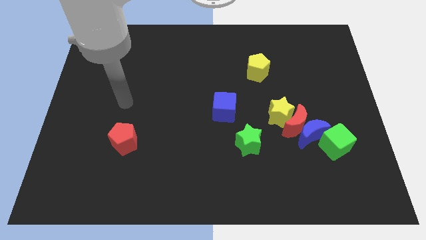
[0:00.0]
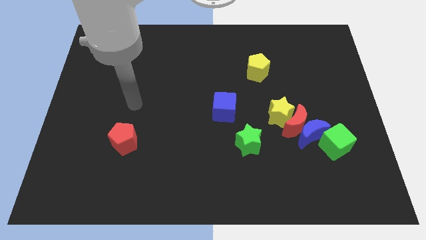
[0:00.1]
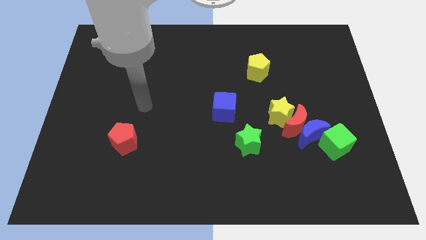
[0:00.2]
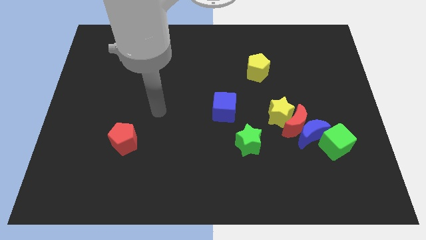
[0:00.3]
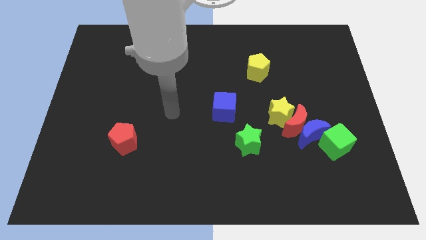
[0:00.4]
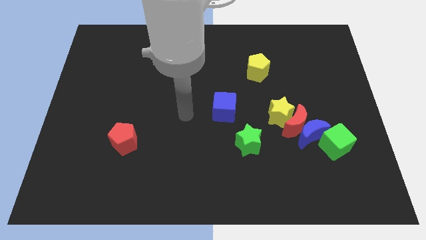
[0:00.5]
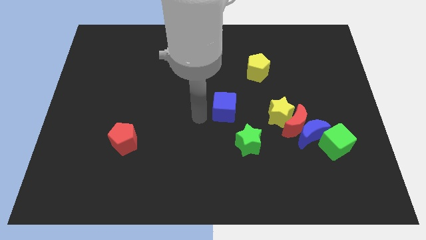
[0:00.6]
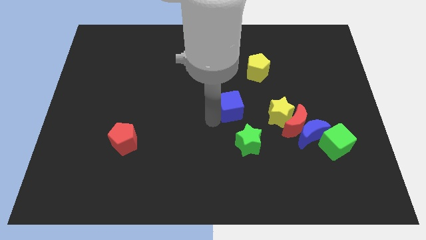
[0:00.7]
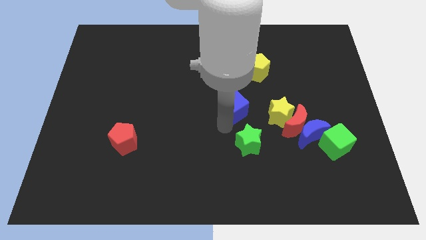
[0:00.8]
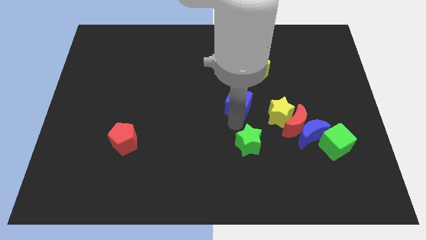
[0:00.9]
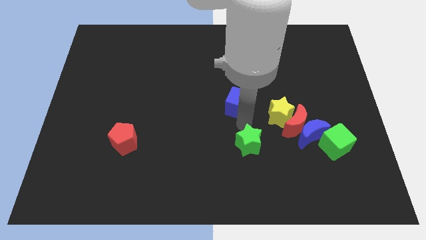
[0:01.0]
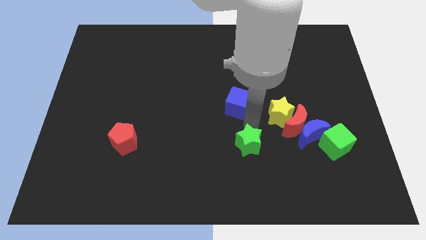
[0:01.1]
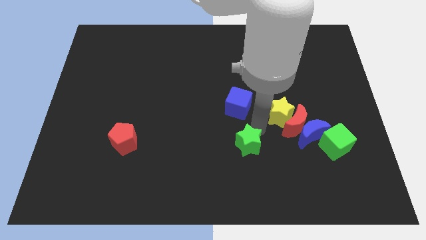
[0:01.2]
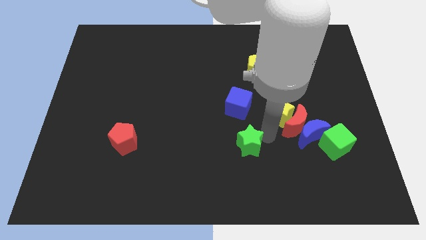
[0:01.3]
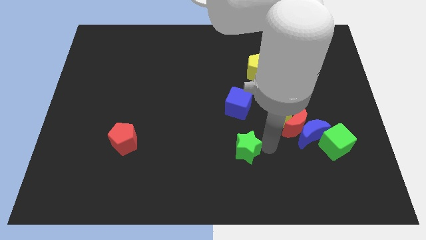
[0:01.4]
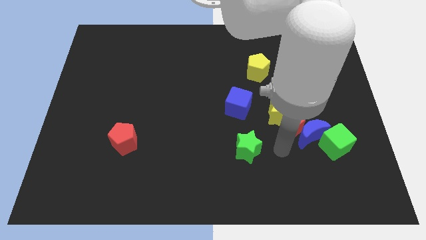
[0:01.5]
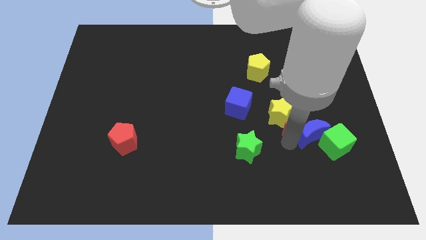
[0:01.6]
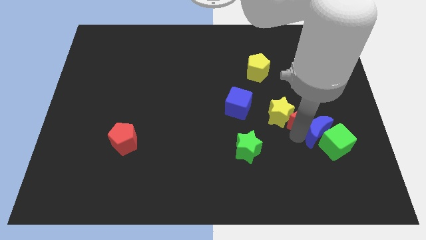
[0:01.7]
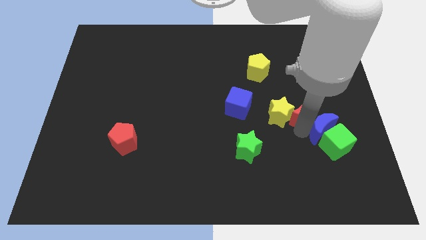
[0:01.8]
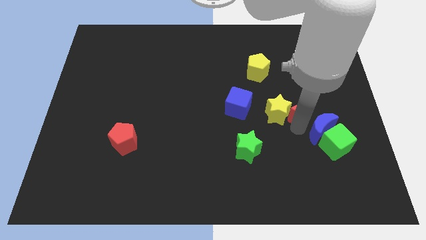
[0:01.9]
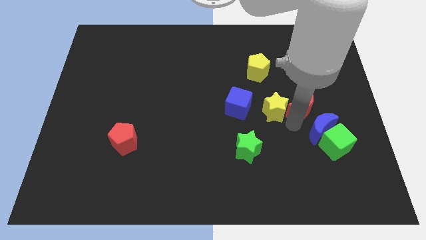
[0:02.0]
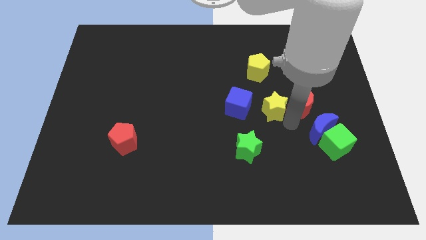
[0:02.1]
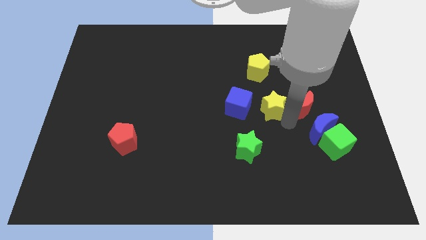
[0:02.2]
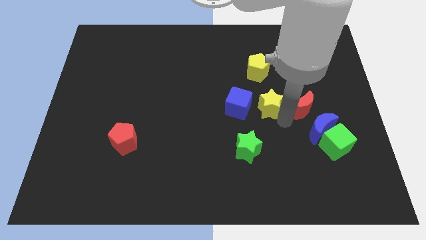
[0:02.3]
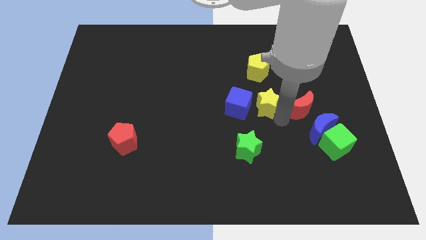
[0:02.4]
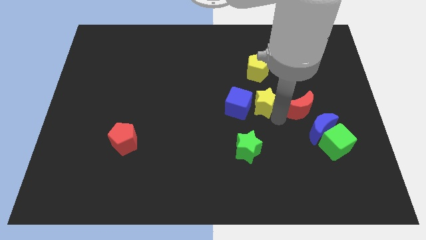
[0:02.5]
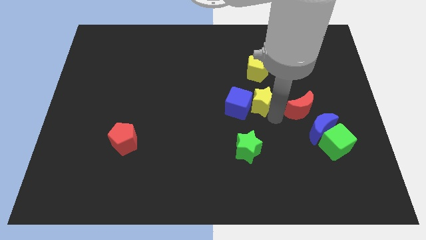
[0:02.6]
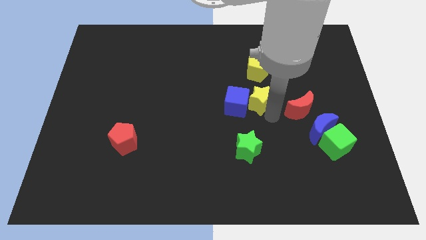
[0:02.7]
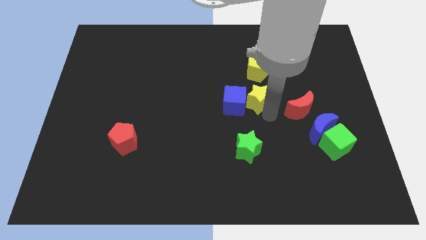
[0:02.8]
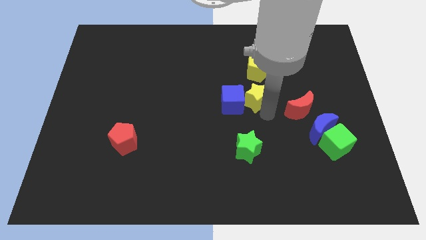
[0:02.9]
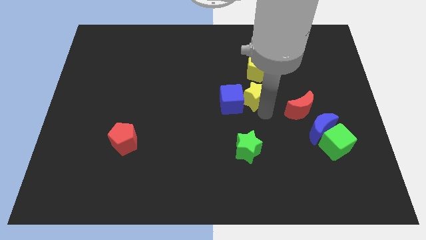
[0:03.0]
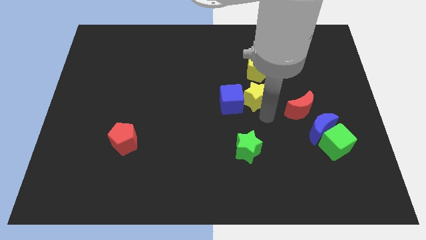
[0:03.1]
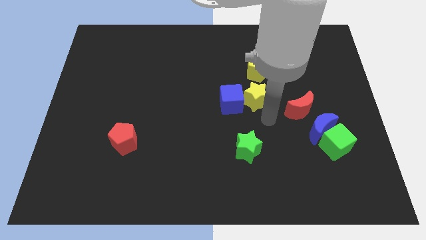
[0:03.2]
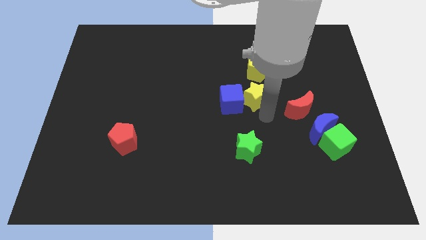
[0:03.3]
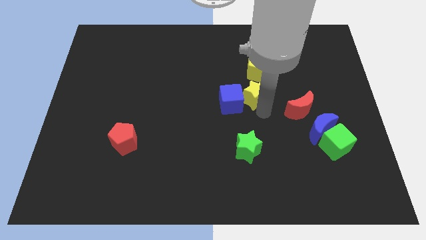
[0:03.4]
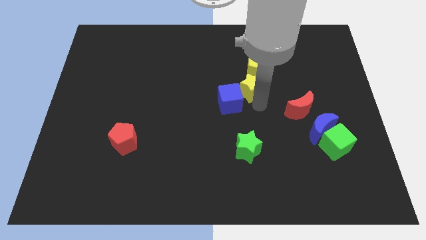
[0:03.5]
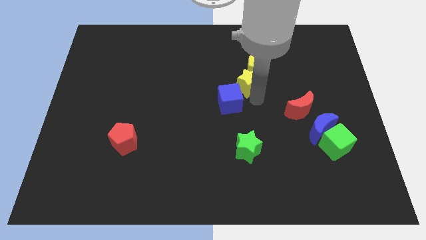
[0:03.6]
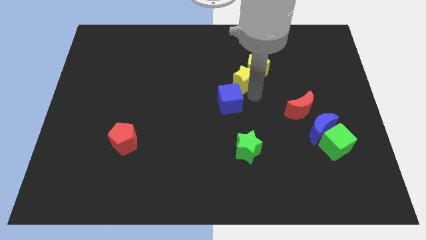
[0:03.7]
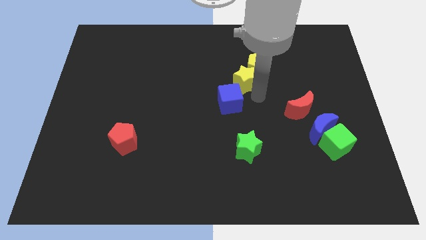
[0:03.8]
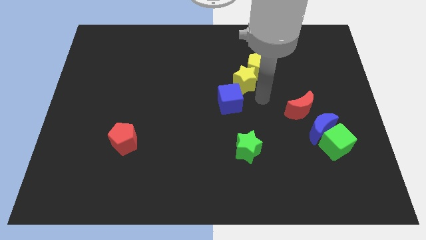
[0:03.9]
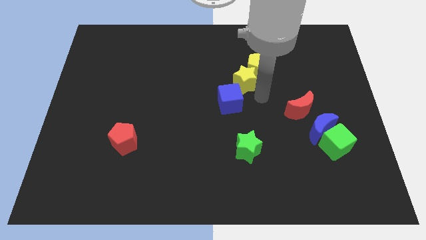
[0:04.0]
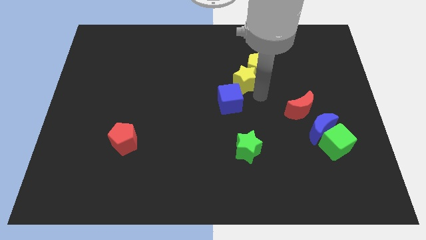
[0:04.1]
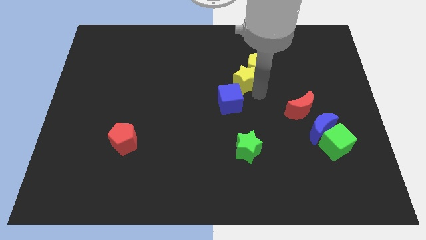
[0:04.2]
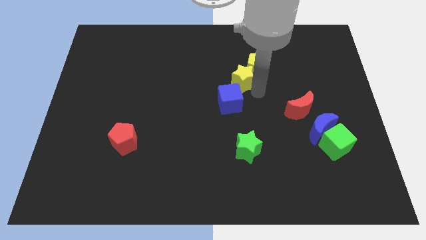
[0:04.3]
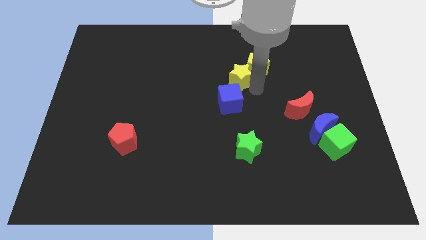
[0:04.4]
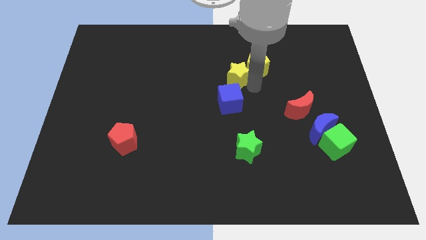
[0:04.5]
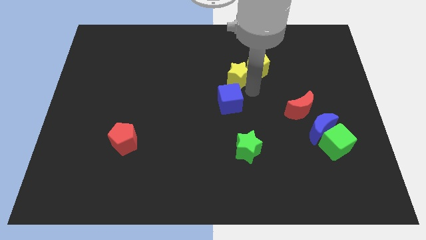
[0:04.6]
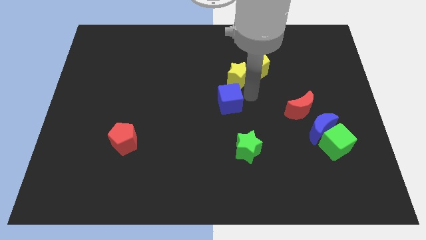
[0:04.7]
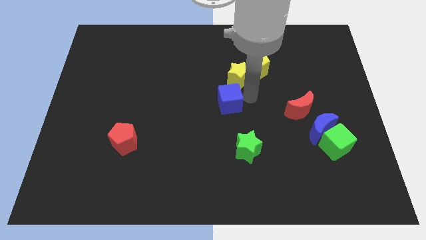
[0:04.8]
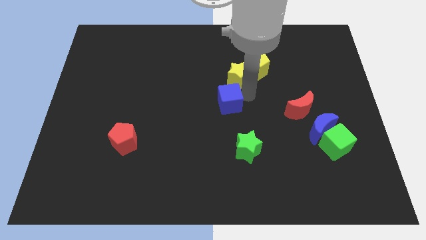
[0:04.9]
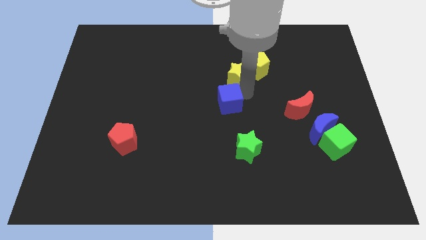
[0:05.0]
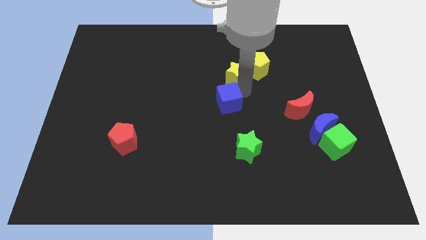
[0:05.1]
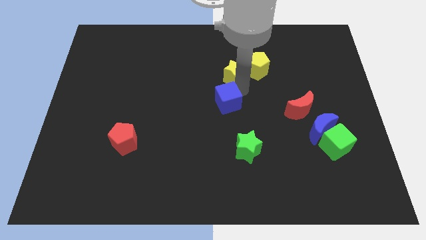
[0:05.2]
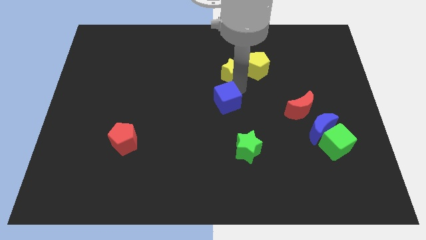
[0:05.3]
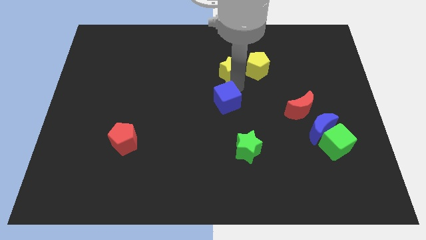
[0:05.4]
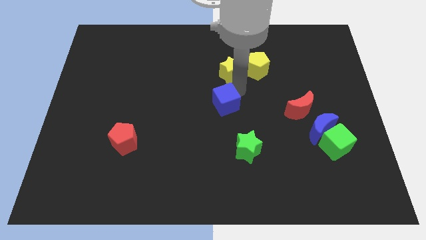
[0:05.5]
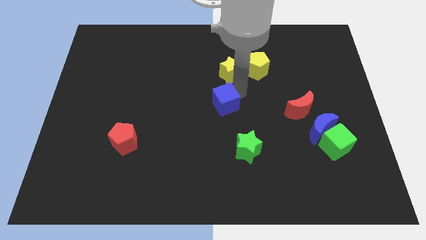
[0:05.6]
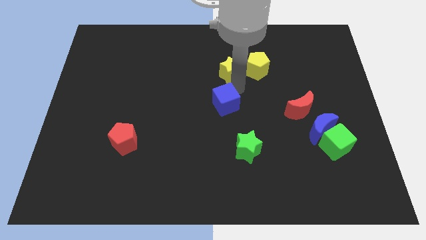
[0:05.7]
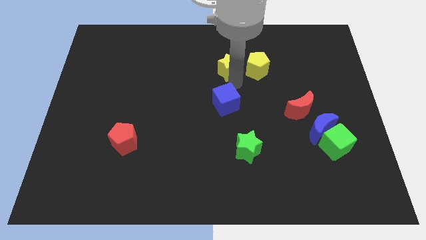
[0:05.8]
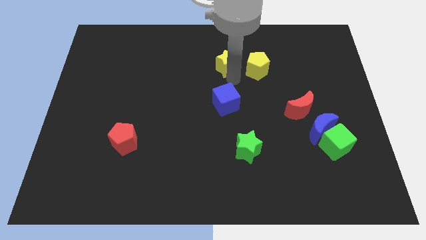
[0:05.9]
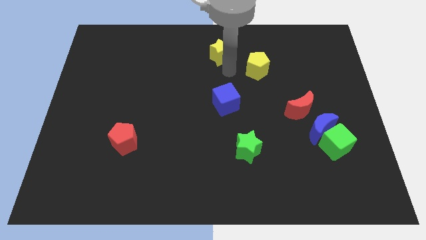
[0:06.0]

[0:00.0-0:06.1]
move the yellow star to the towards your base

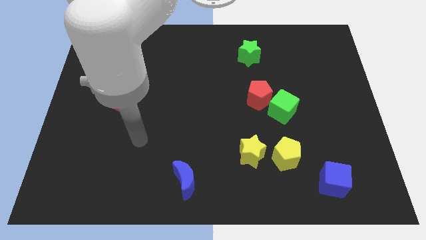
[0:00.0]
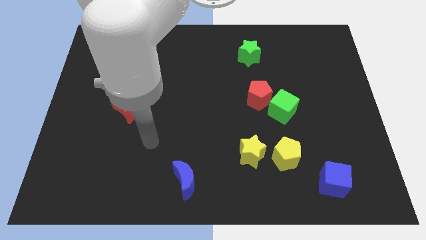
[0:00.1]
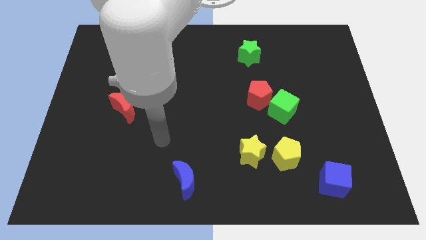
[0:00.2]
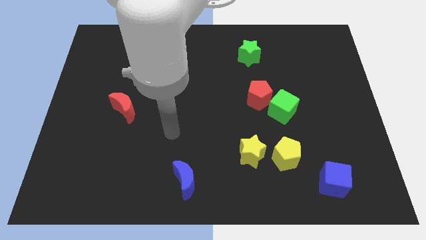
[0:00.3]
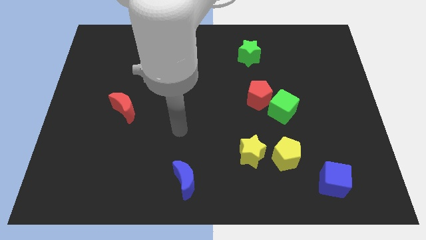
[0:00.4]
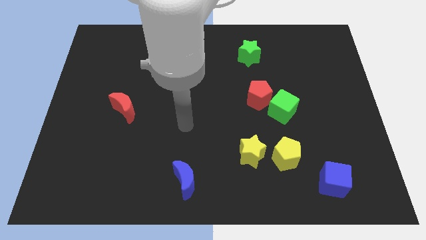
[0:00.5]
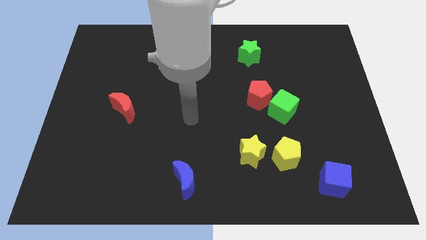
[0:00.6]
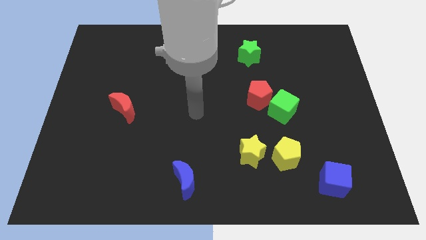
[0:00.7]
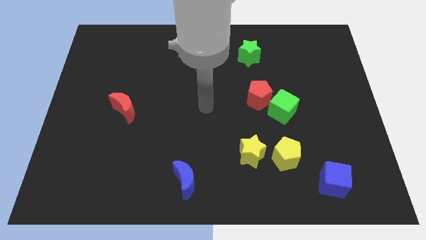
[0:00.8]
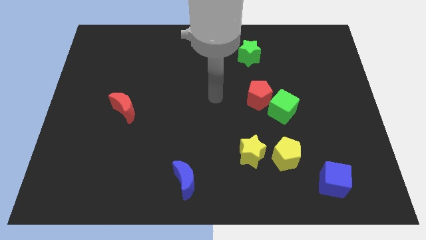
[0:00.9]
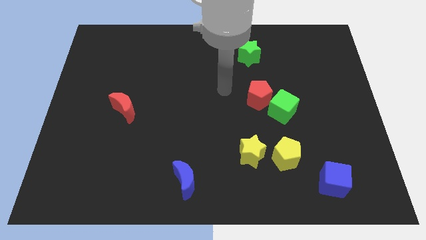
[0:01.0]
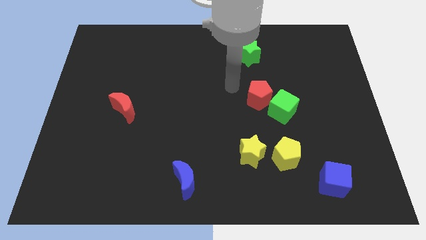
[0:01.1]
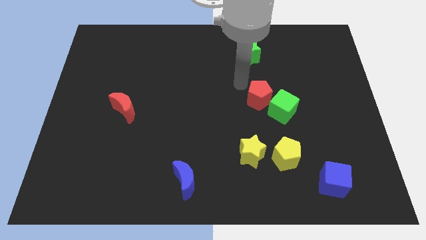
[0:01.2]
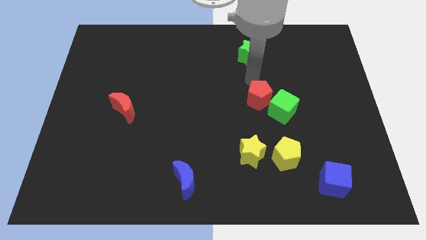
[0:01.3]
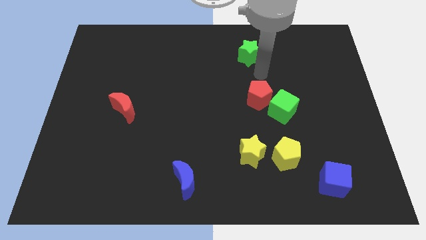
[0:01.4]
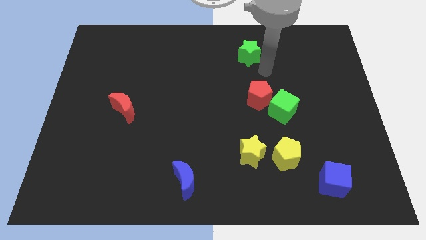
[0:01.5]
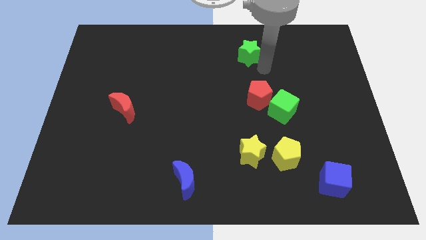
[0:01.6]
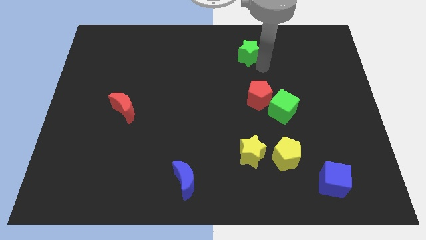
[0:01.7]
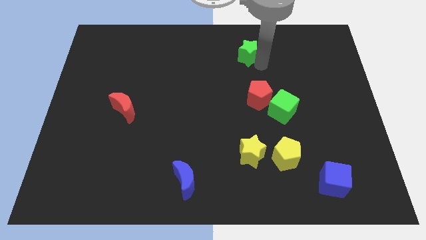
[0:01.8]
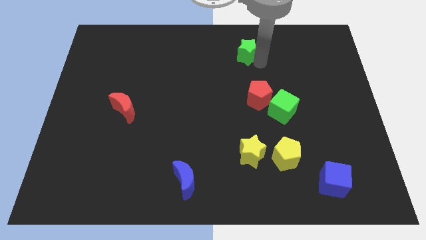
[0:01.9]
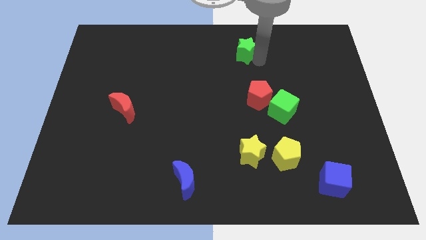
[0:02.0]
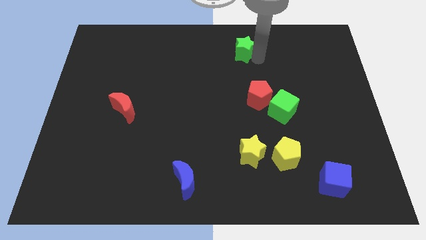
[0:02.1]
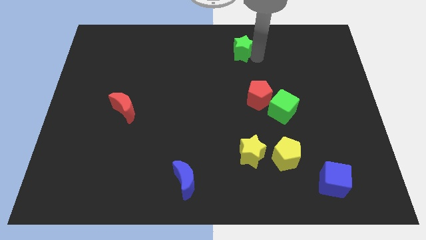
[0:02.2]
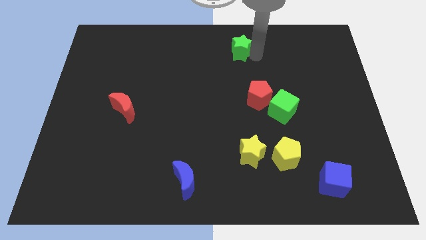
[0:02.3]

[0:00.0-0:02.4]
move the green star to the top
